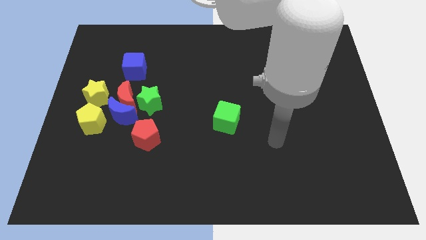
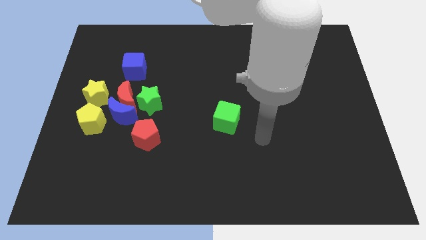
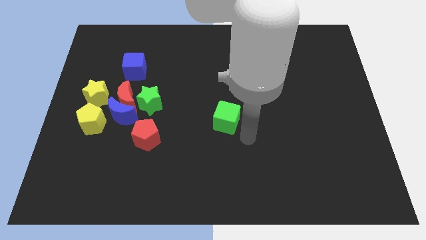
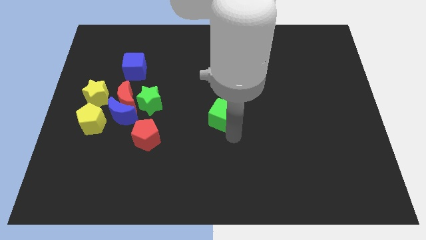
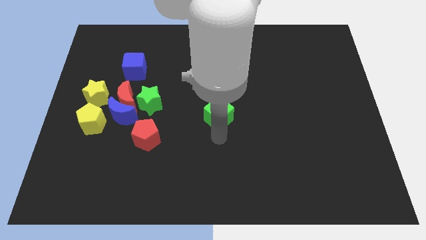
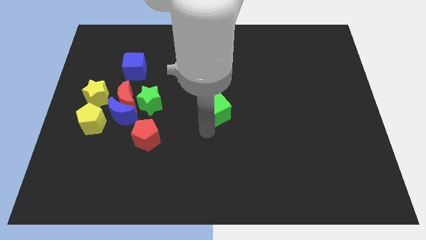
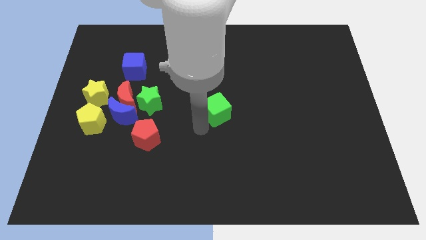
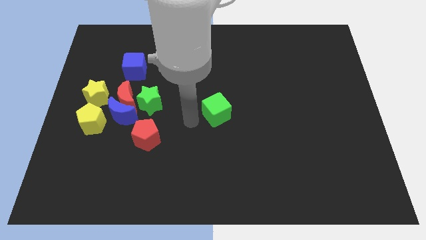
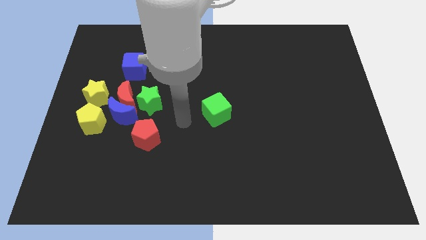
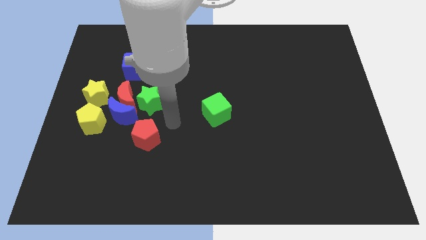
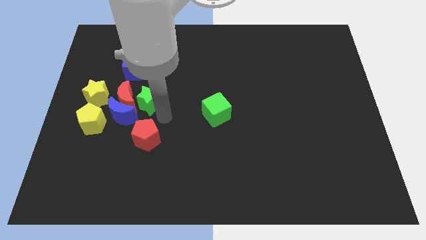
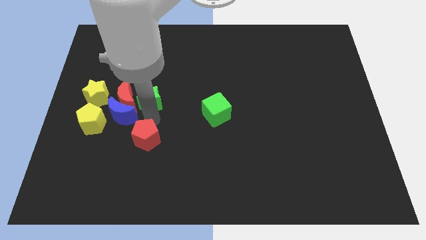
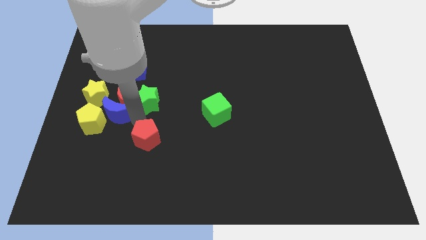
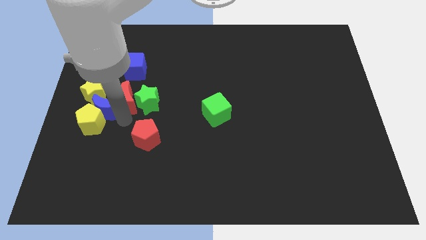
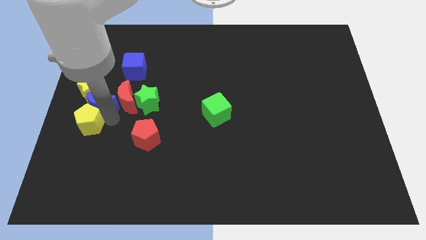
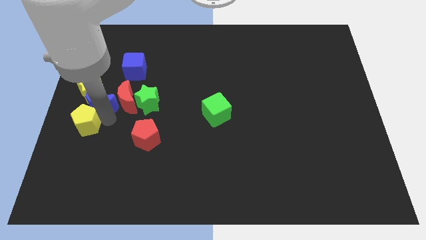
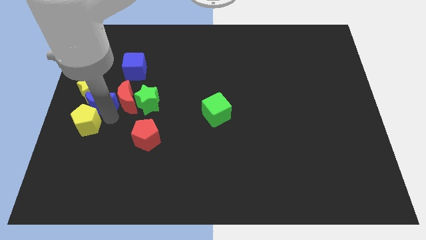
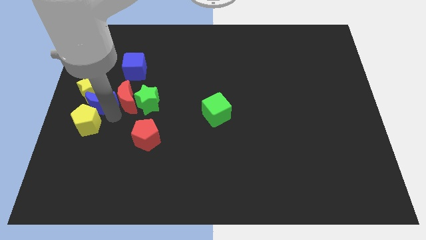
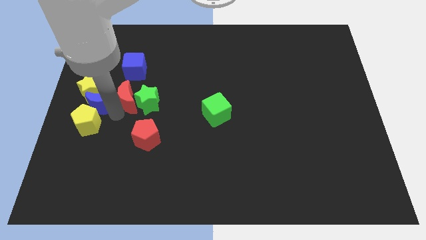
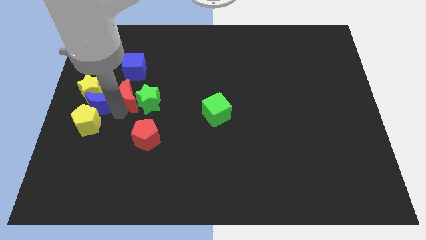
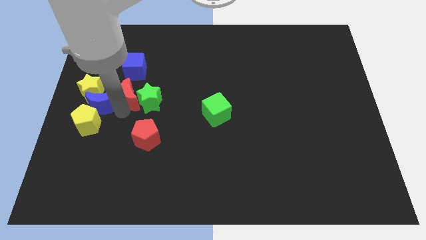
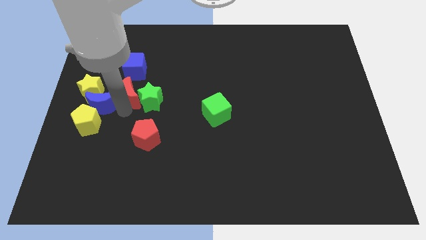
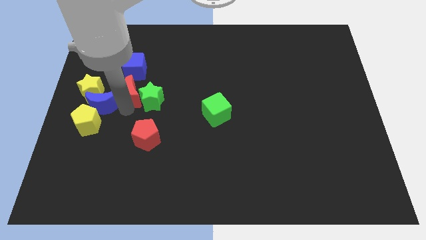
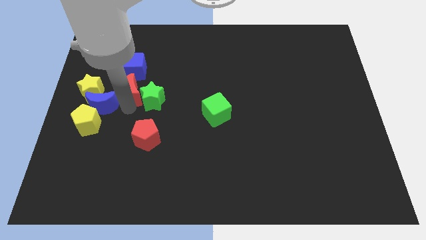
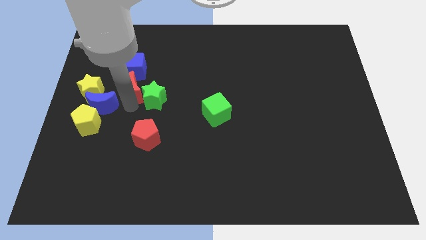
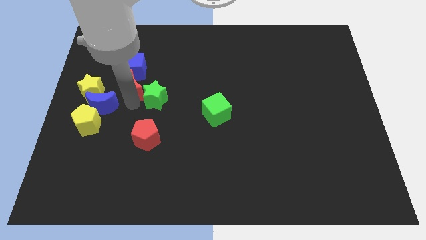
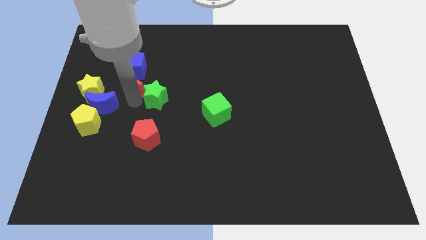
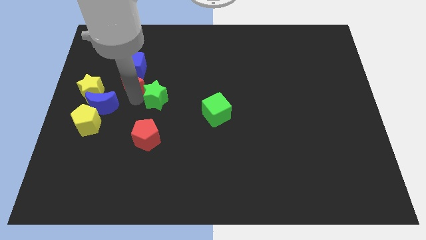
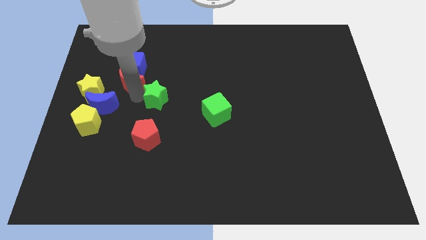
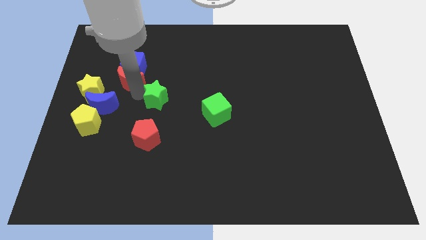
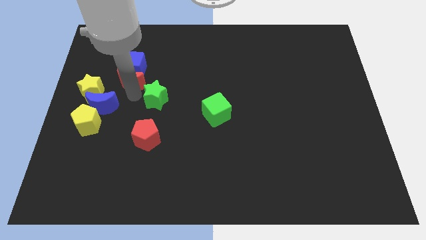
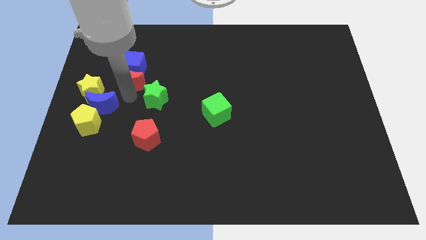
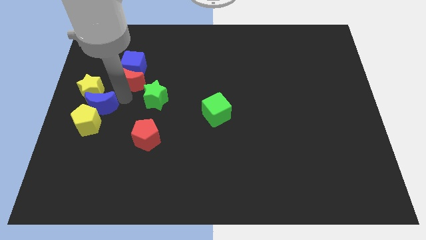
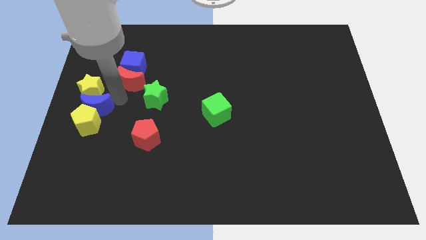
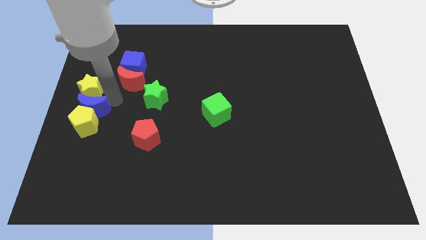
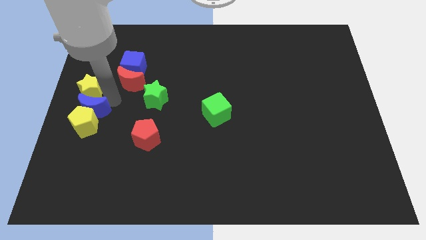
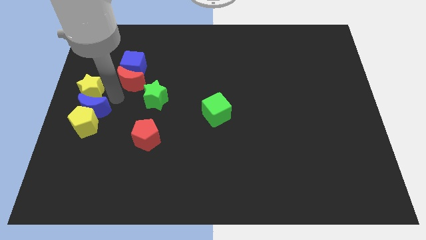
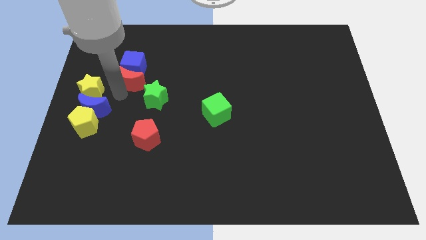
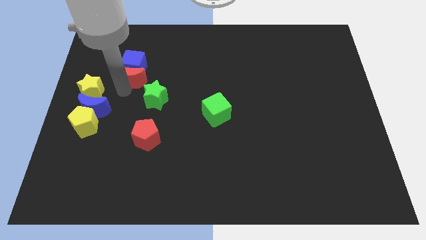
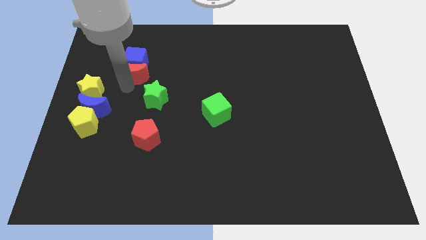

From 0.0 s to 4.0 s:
move the red moon away from the group

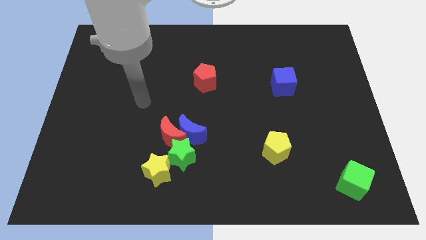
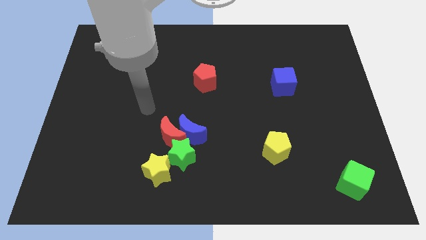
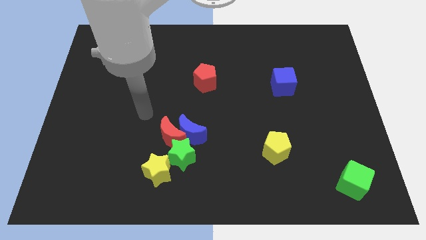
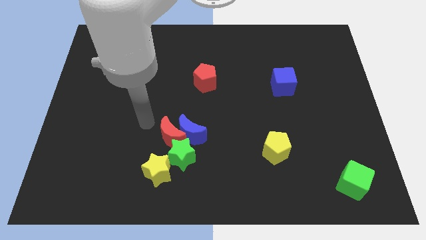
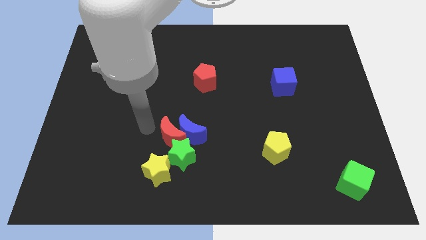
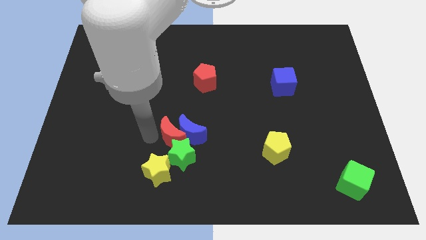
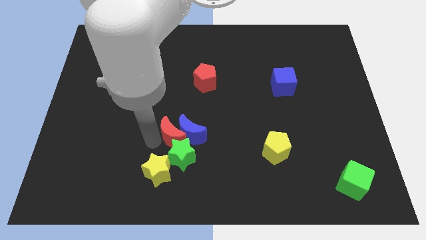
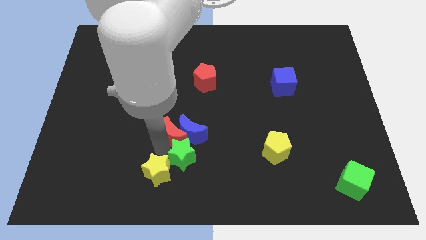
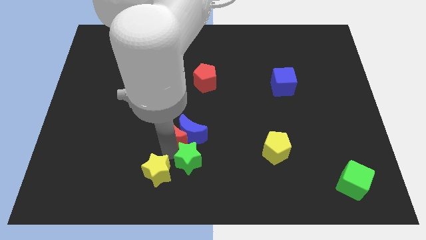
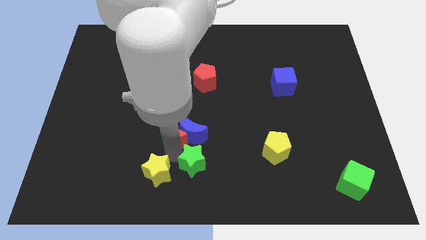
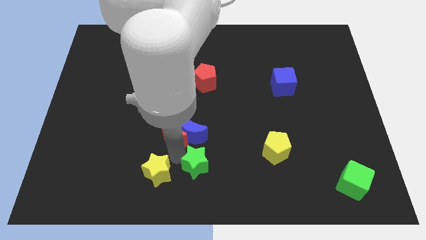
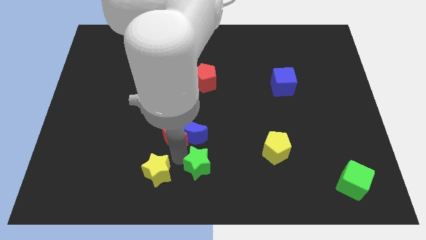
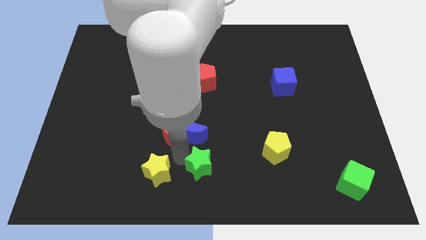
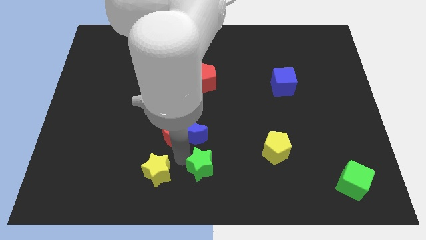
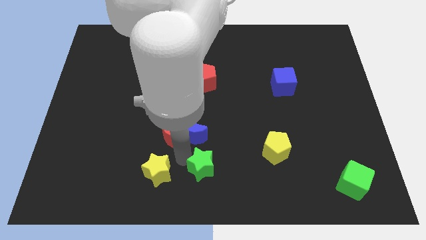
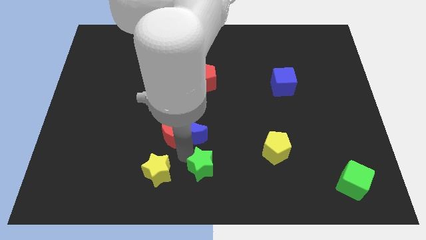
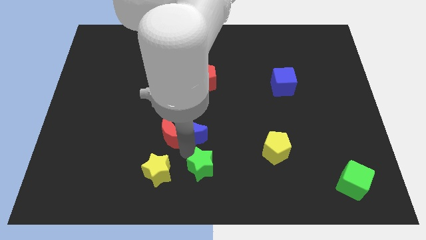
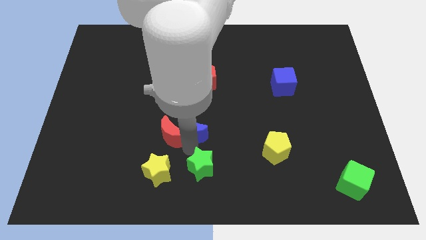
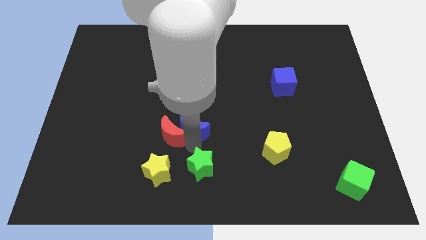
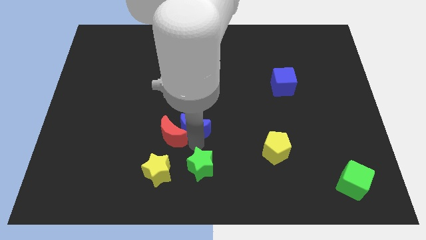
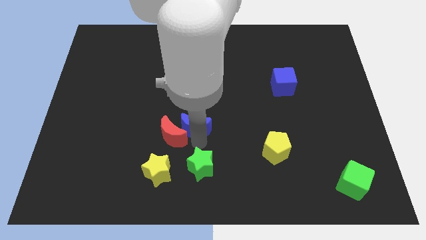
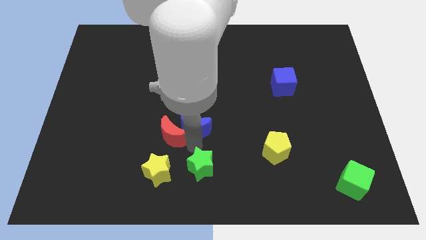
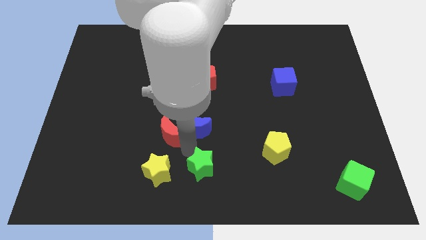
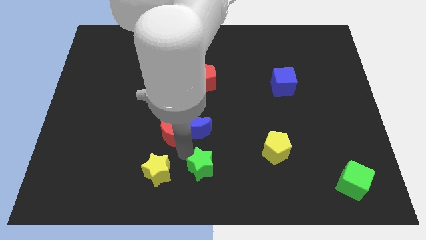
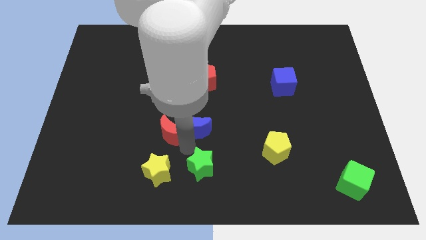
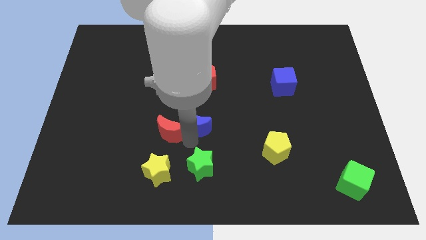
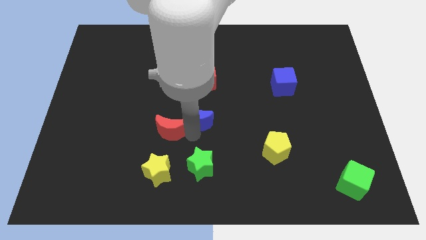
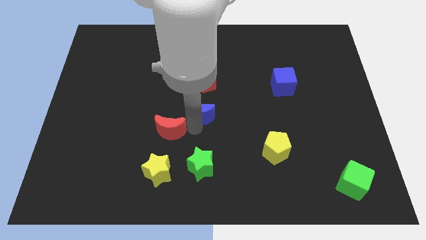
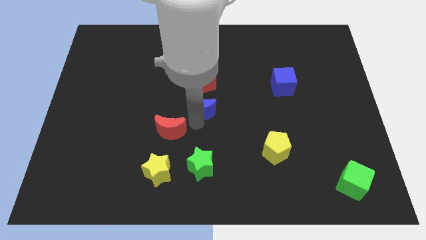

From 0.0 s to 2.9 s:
move the blue moon away from the red moon and green star

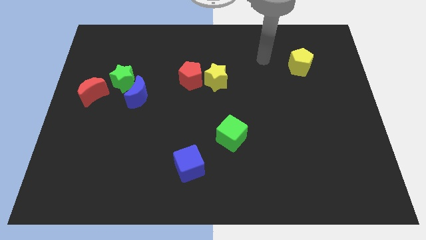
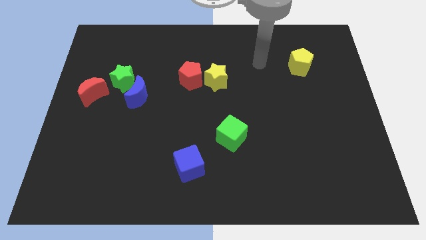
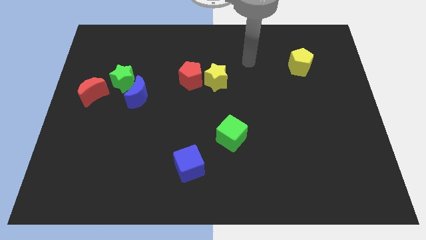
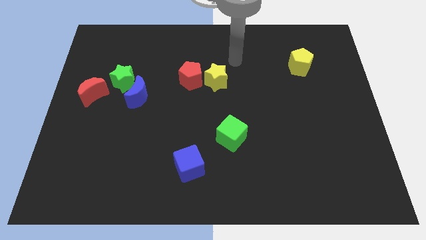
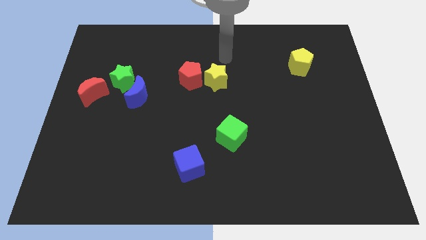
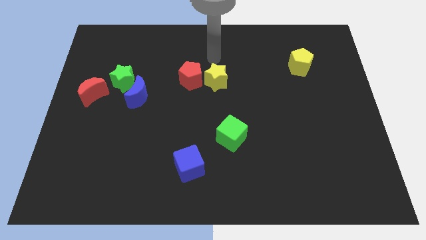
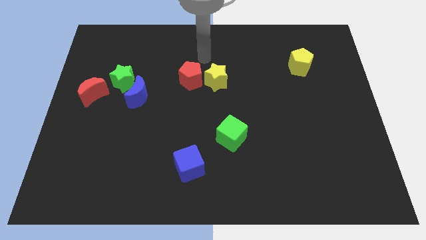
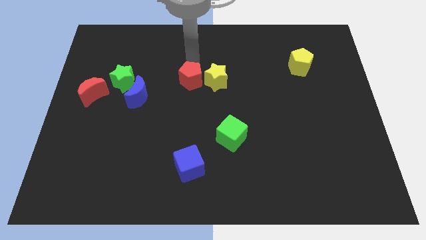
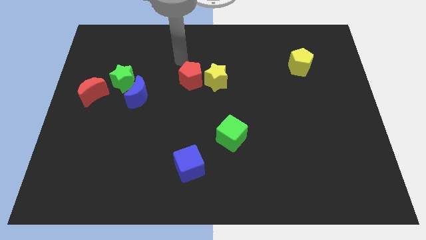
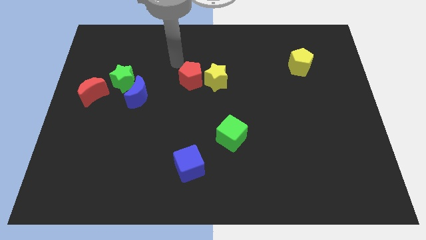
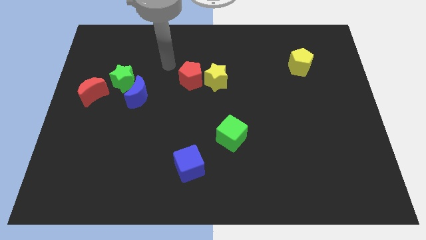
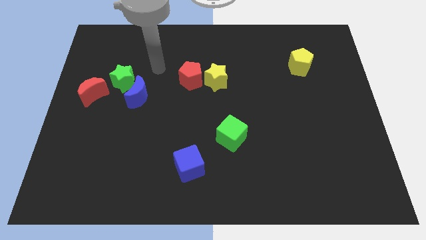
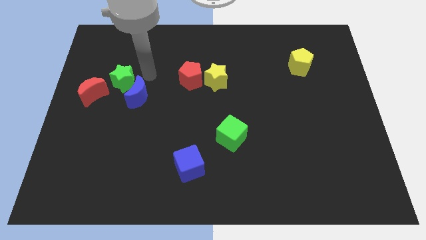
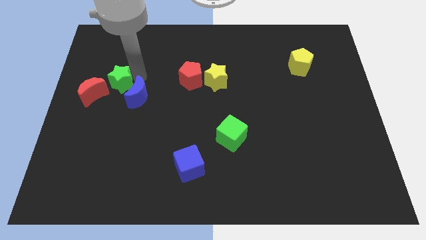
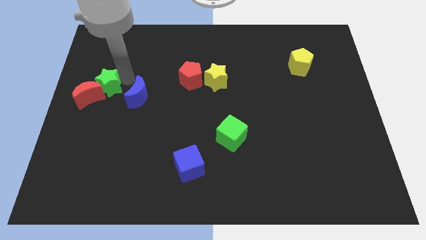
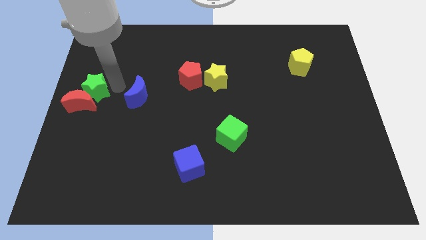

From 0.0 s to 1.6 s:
move the blue moon away from the green star

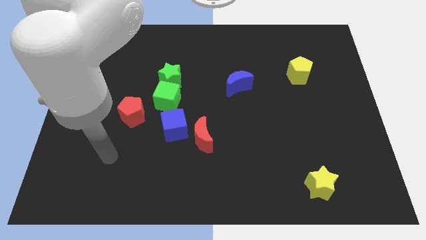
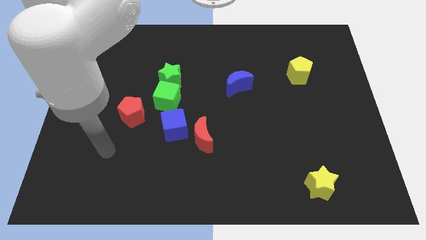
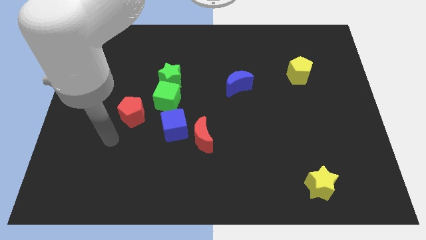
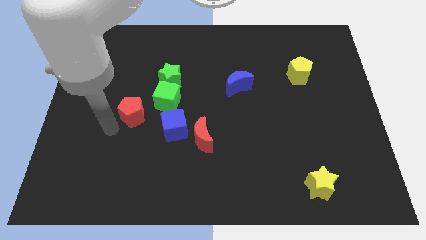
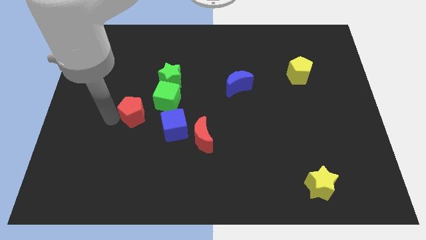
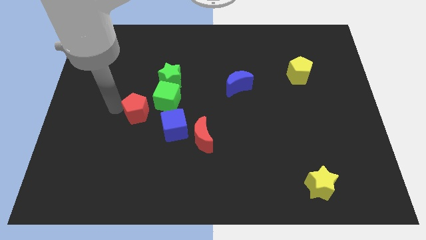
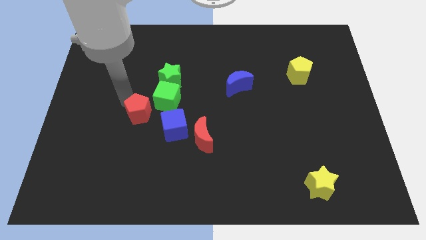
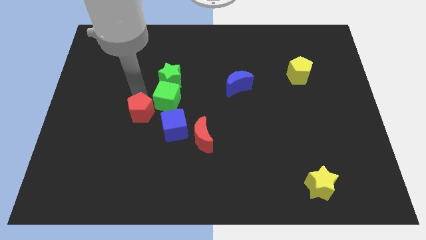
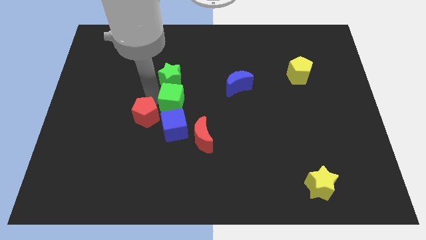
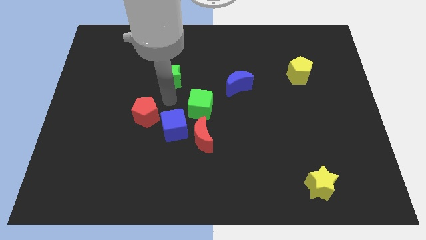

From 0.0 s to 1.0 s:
move the green star away from the green cube
